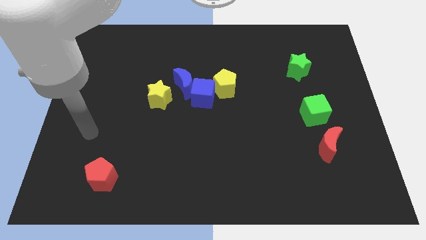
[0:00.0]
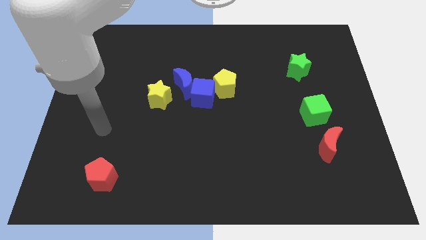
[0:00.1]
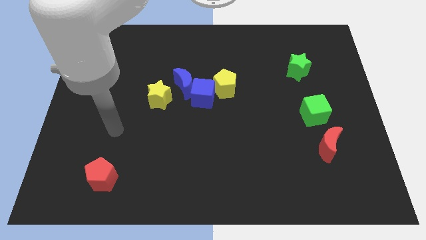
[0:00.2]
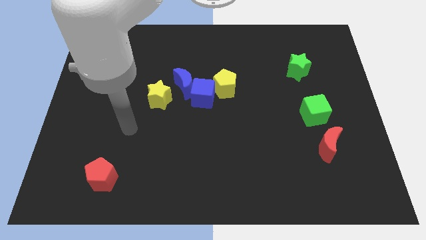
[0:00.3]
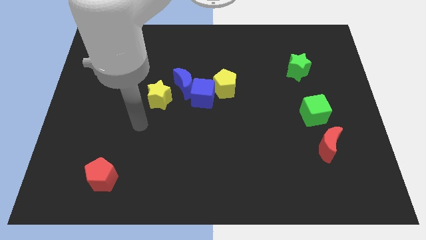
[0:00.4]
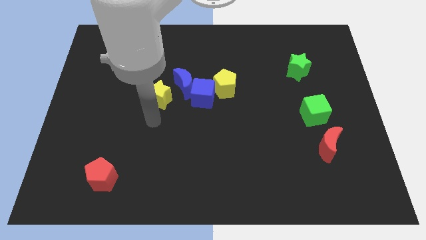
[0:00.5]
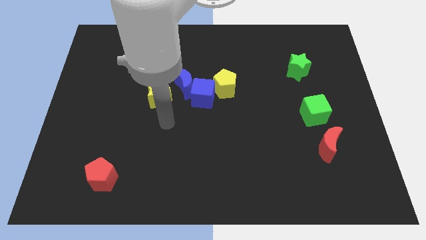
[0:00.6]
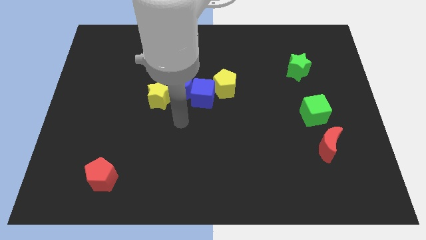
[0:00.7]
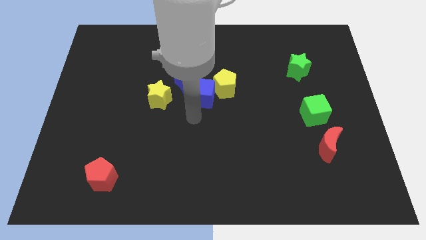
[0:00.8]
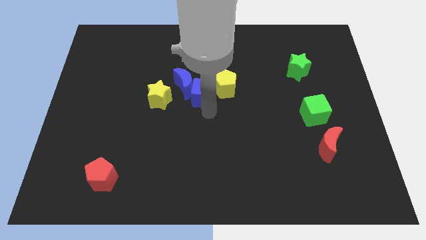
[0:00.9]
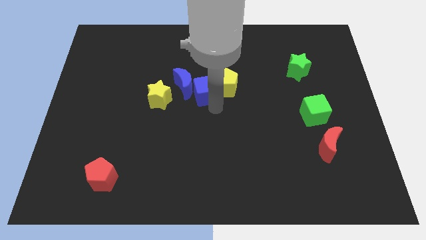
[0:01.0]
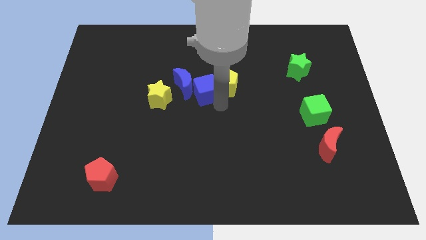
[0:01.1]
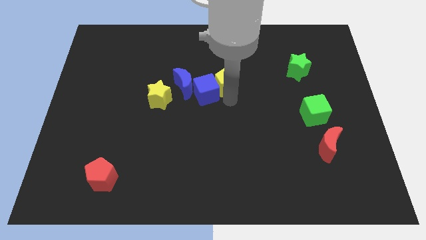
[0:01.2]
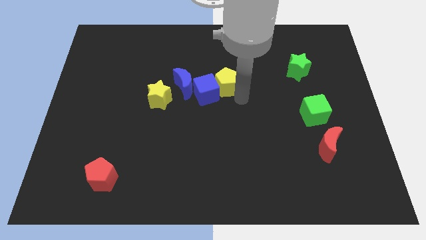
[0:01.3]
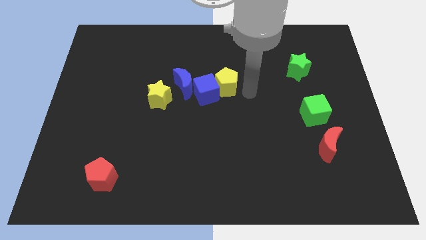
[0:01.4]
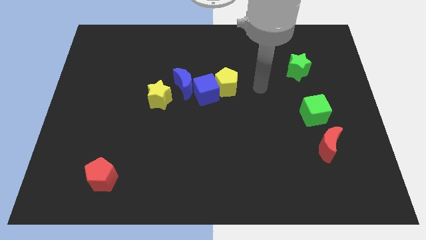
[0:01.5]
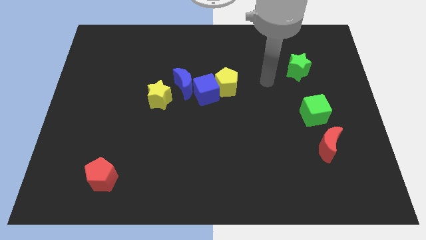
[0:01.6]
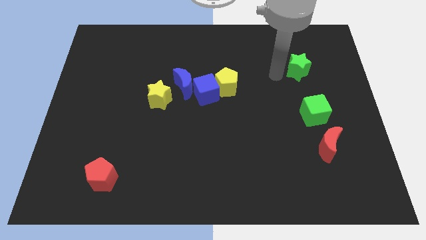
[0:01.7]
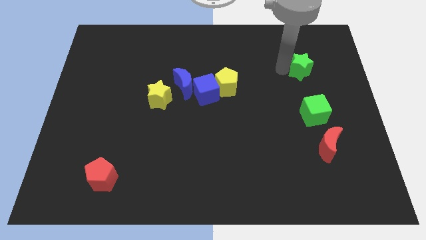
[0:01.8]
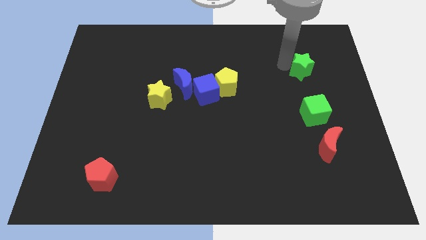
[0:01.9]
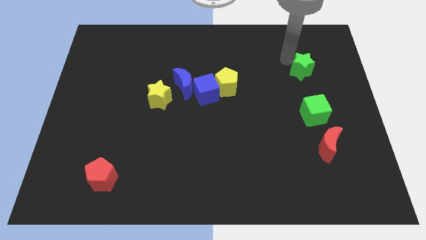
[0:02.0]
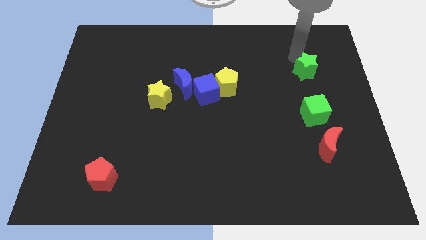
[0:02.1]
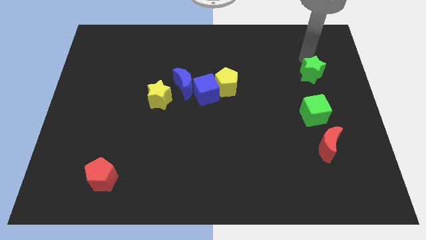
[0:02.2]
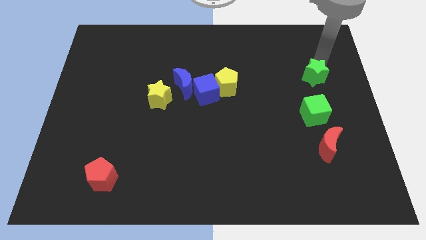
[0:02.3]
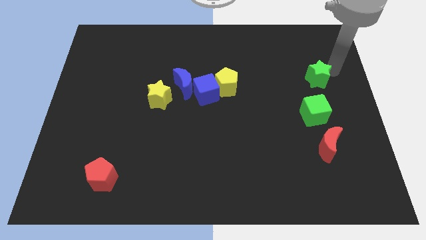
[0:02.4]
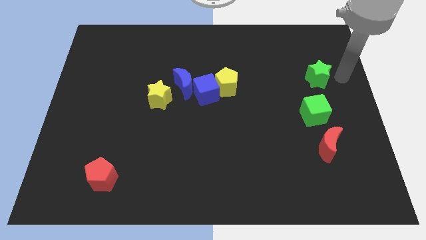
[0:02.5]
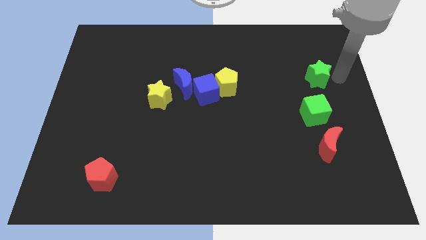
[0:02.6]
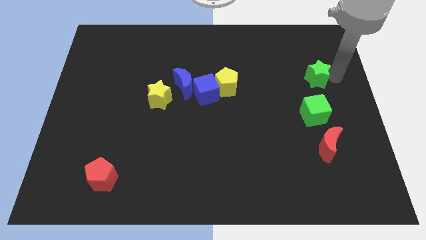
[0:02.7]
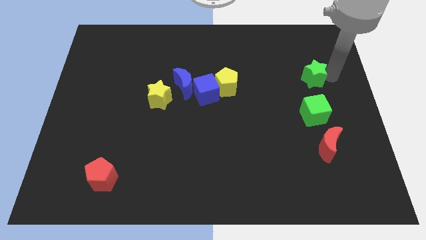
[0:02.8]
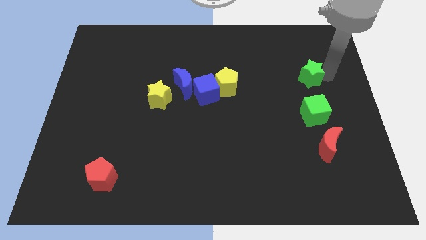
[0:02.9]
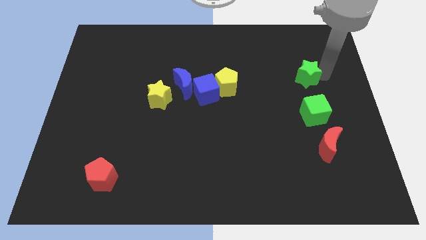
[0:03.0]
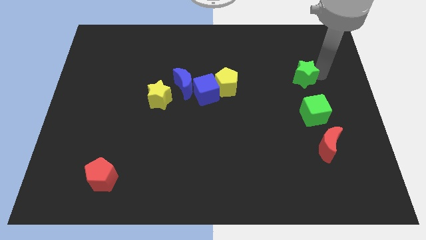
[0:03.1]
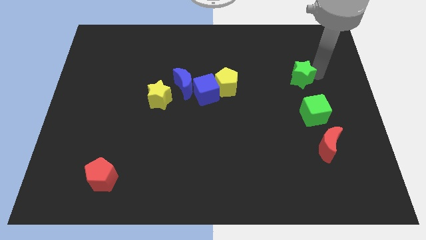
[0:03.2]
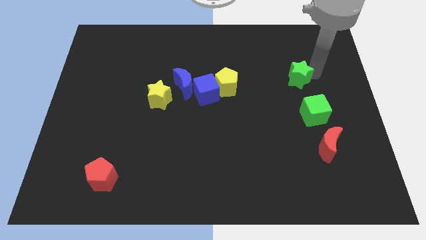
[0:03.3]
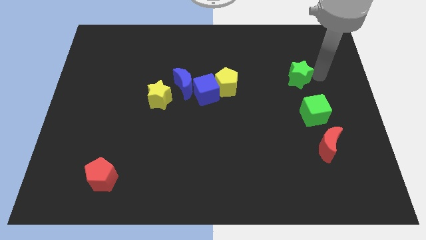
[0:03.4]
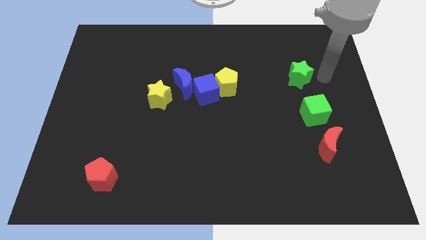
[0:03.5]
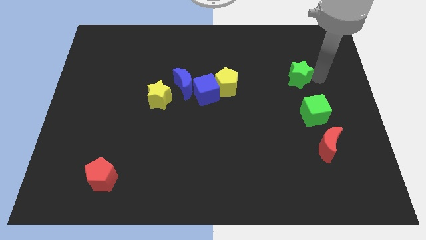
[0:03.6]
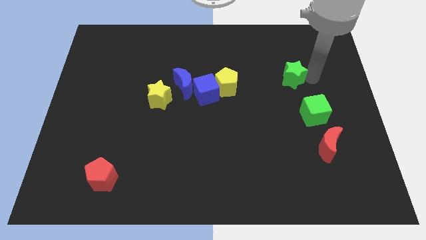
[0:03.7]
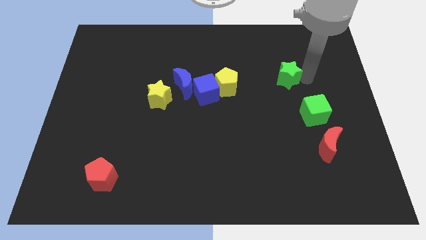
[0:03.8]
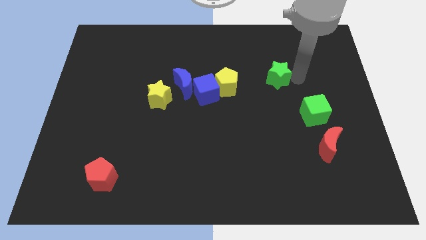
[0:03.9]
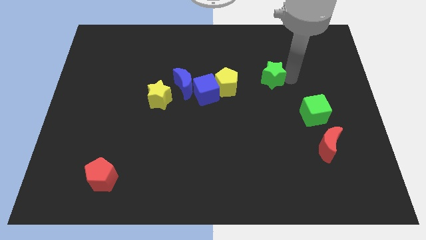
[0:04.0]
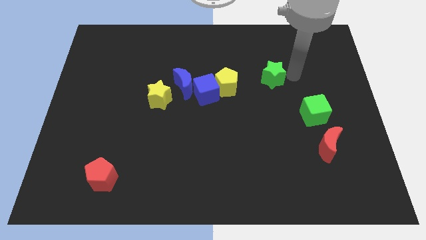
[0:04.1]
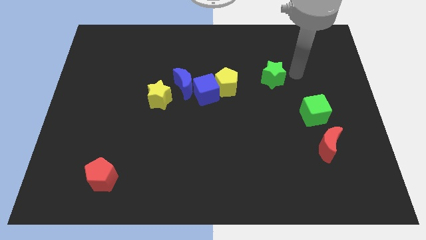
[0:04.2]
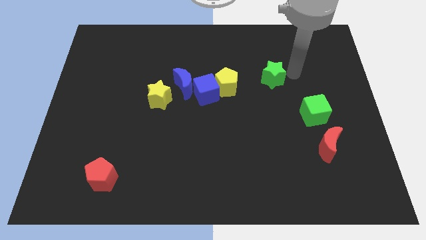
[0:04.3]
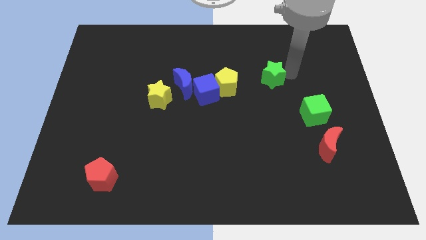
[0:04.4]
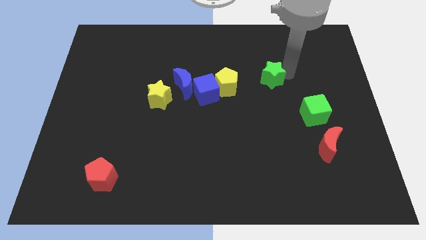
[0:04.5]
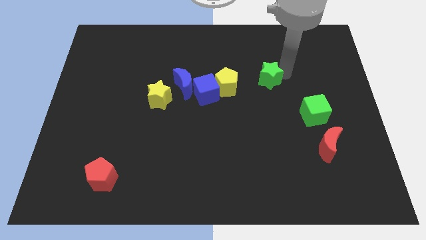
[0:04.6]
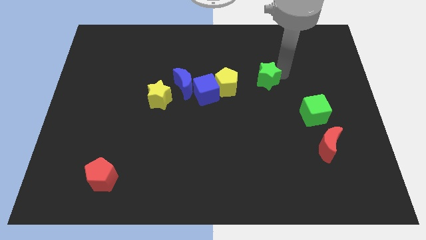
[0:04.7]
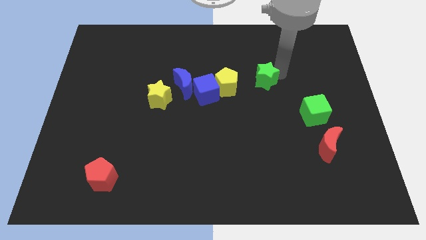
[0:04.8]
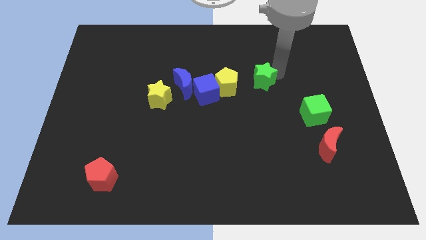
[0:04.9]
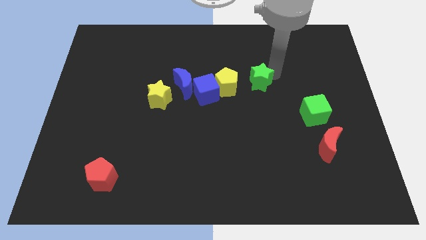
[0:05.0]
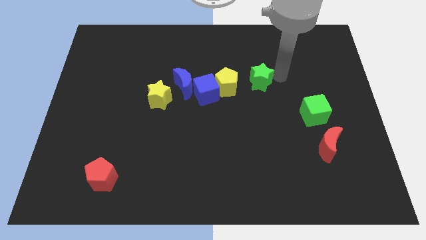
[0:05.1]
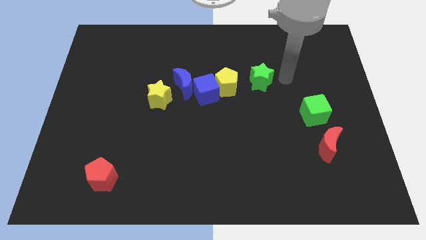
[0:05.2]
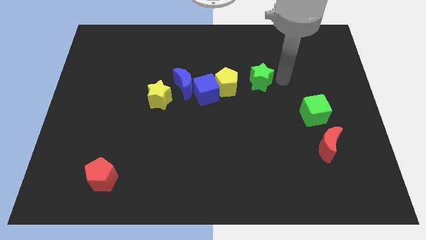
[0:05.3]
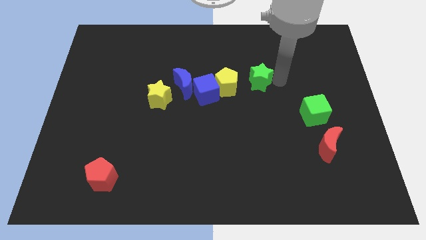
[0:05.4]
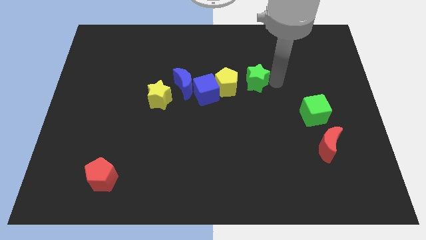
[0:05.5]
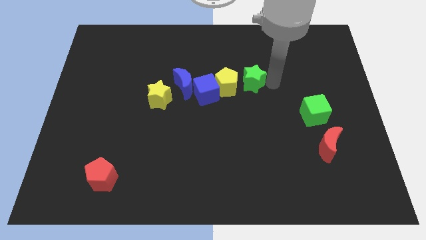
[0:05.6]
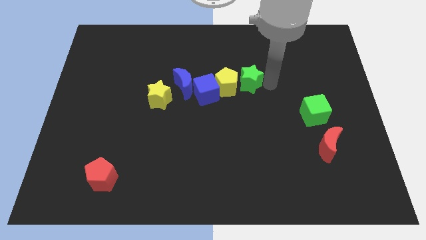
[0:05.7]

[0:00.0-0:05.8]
push the green star towards the yellow pentagon

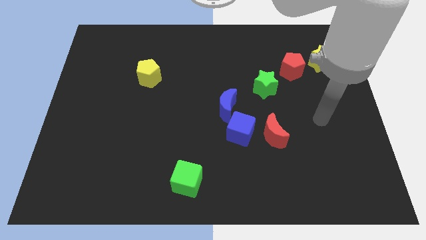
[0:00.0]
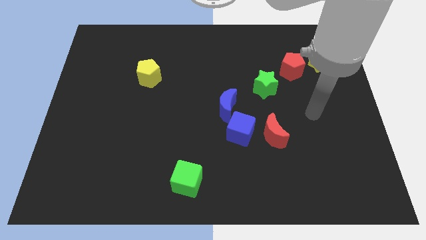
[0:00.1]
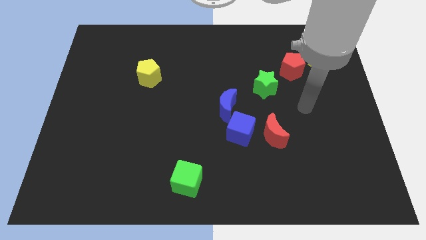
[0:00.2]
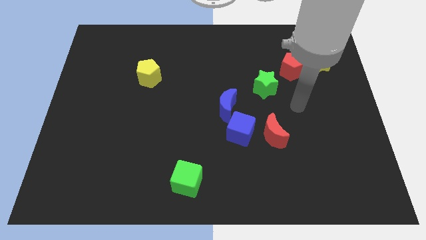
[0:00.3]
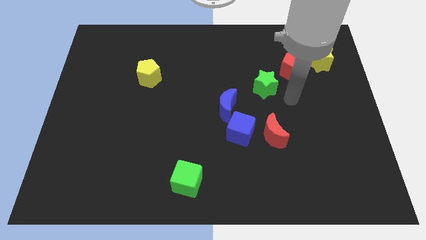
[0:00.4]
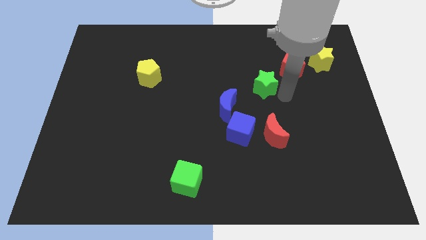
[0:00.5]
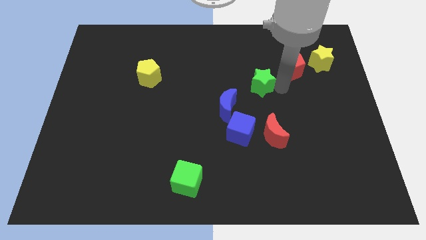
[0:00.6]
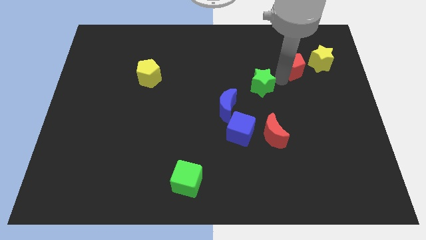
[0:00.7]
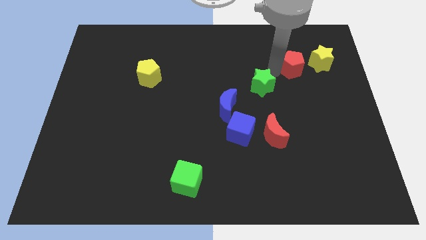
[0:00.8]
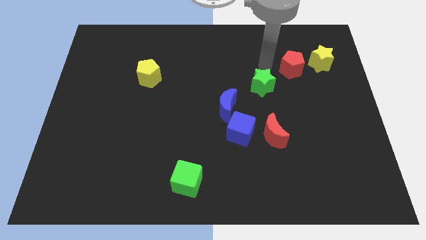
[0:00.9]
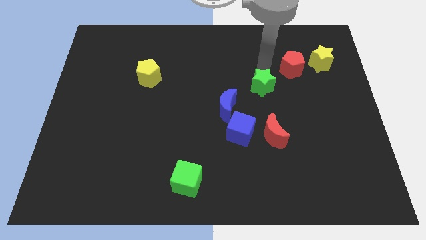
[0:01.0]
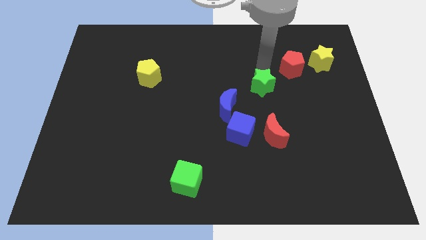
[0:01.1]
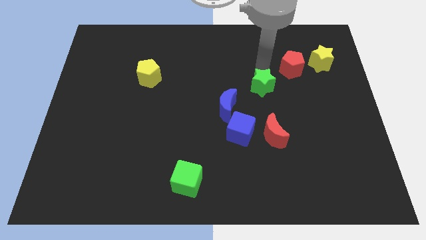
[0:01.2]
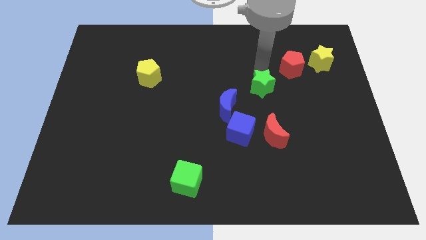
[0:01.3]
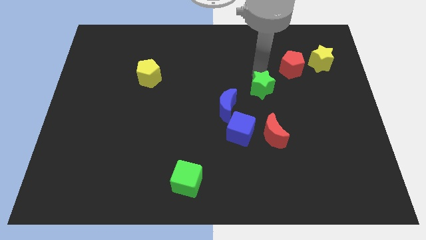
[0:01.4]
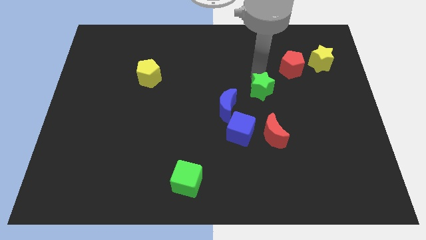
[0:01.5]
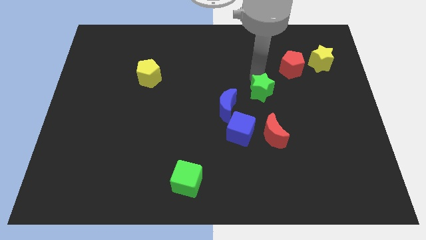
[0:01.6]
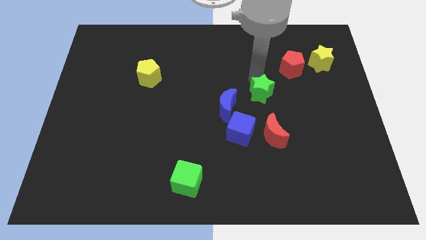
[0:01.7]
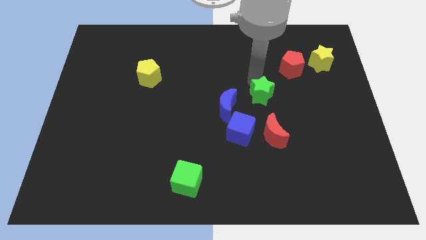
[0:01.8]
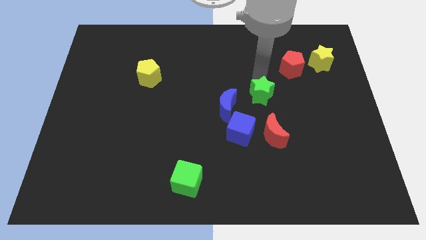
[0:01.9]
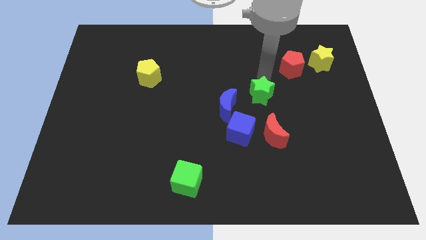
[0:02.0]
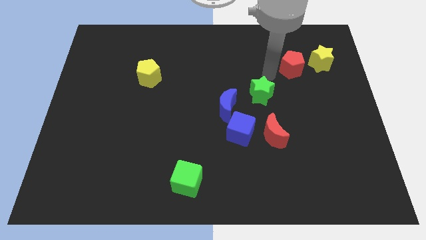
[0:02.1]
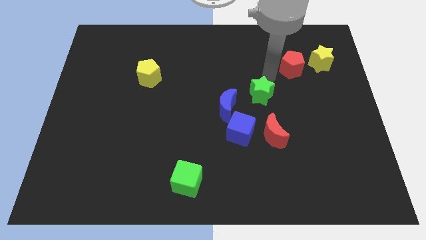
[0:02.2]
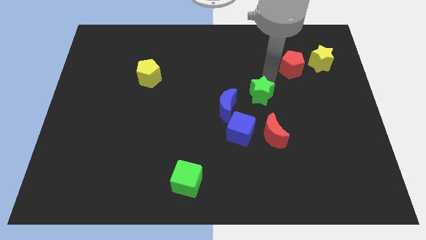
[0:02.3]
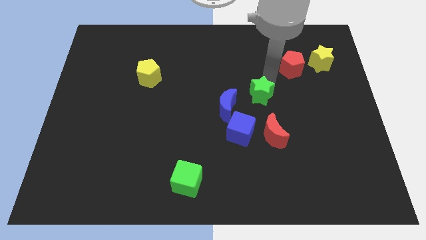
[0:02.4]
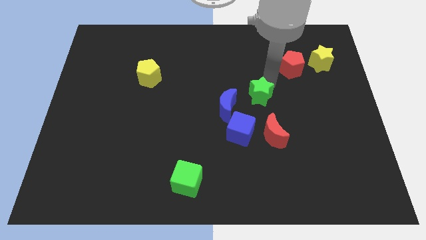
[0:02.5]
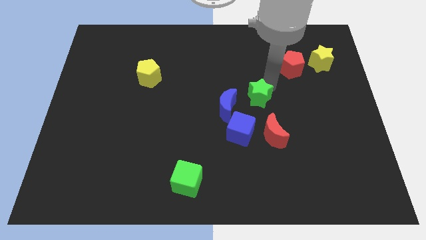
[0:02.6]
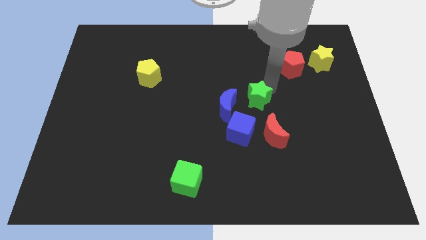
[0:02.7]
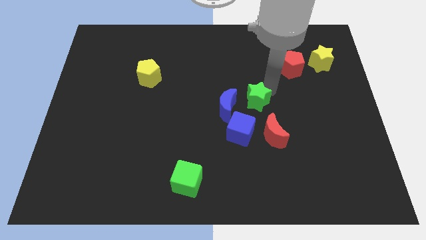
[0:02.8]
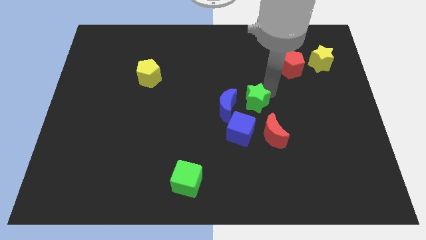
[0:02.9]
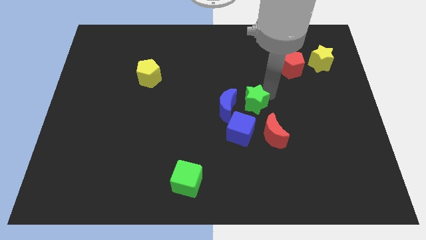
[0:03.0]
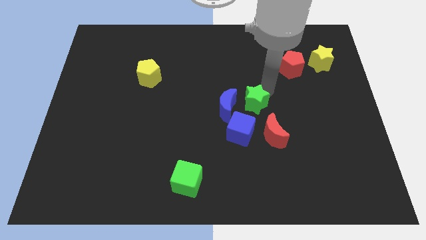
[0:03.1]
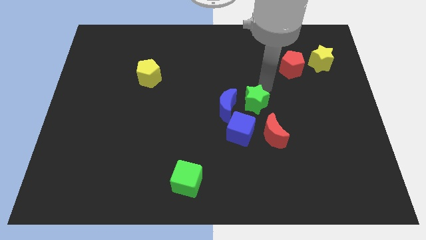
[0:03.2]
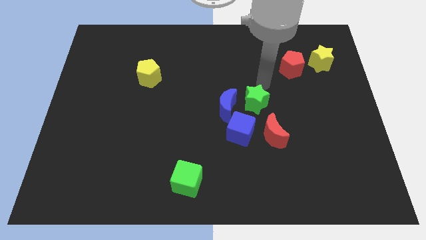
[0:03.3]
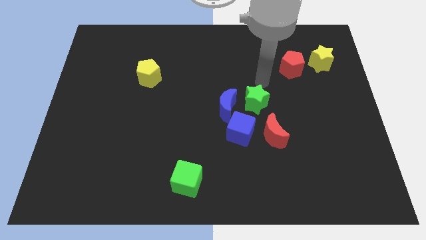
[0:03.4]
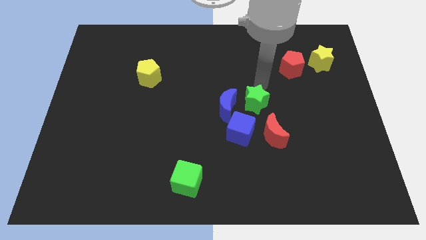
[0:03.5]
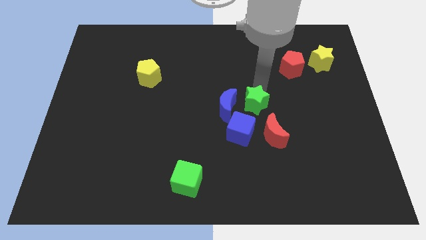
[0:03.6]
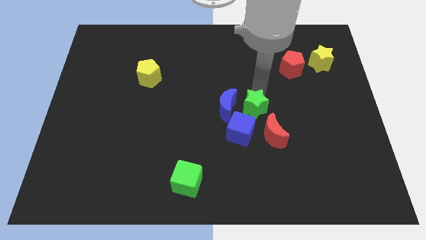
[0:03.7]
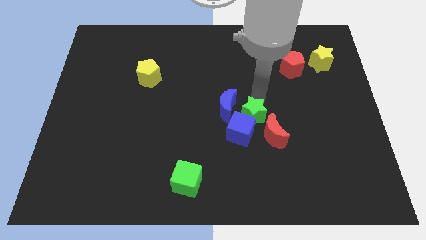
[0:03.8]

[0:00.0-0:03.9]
put the green star next to the blue cube
